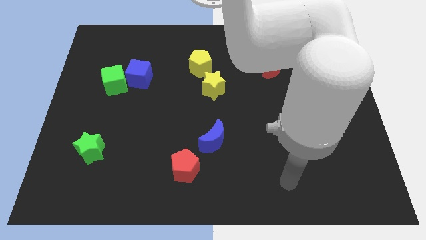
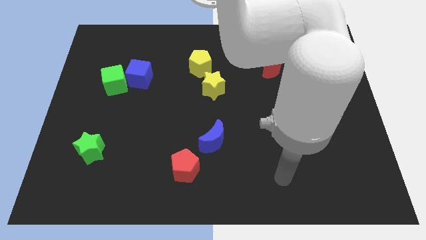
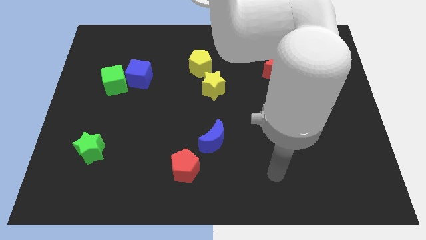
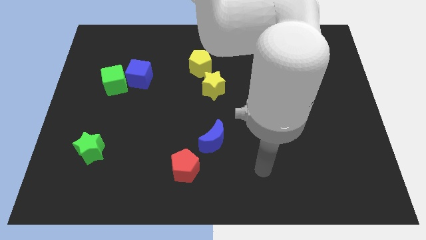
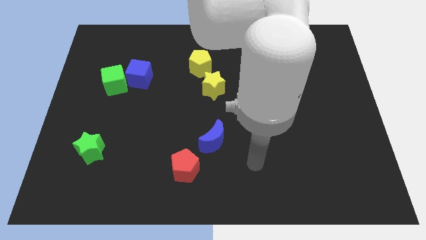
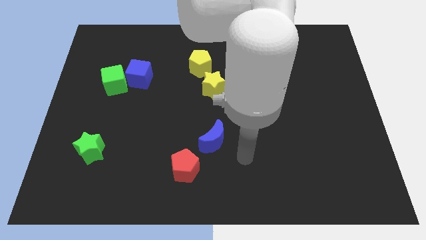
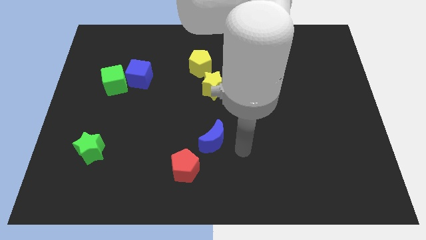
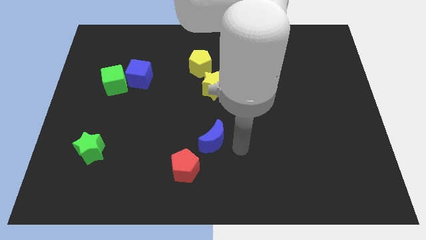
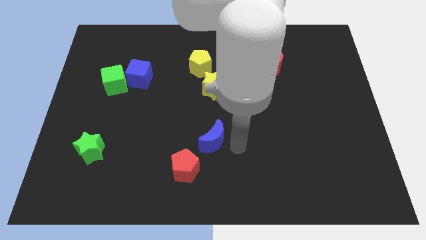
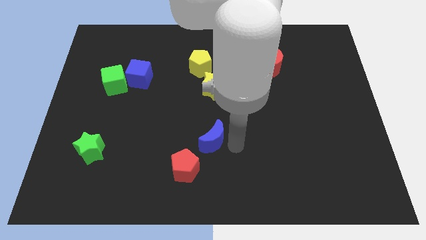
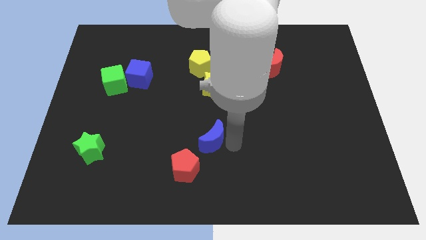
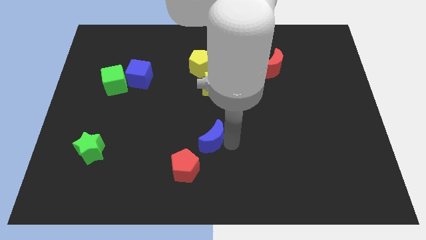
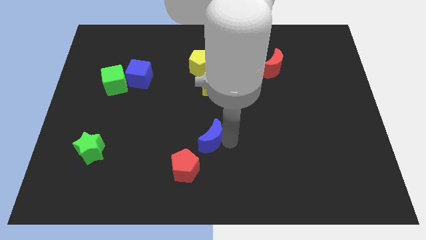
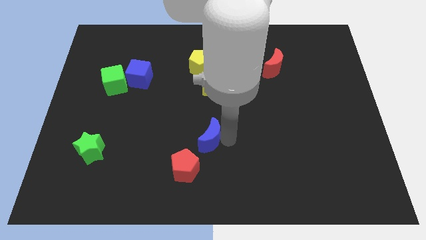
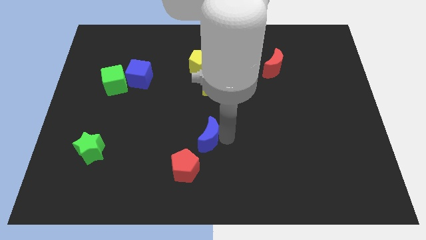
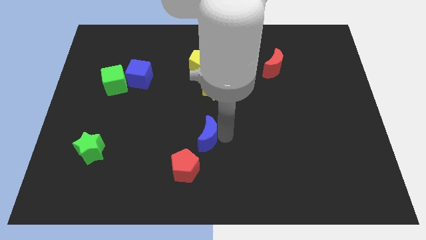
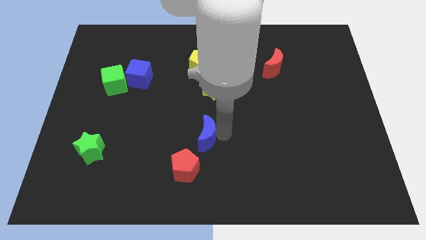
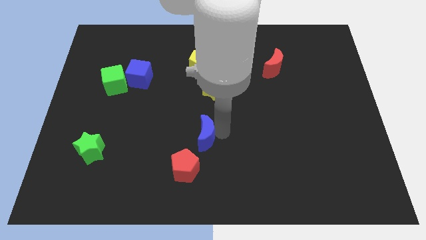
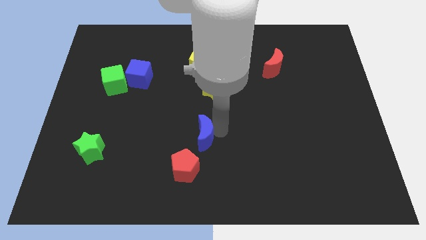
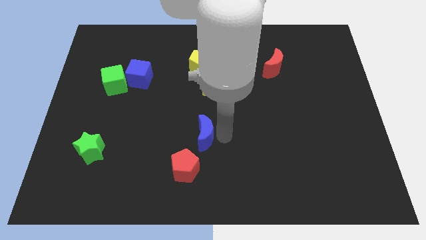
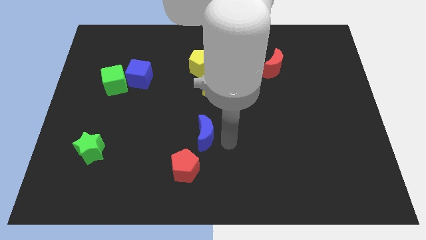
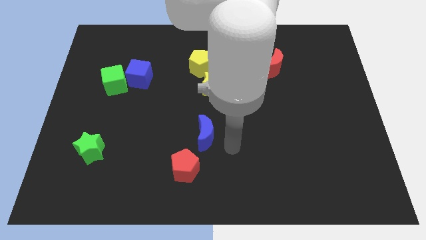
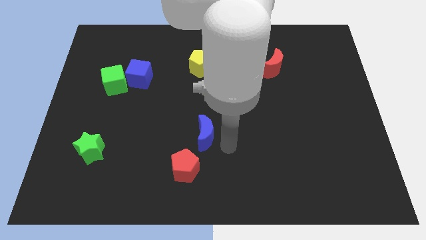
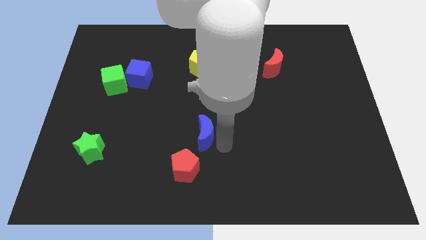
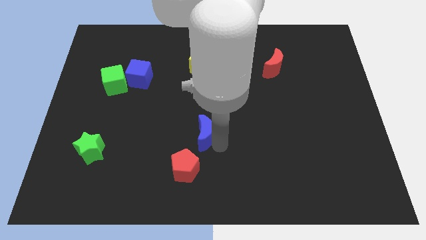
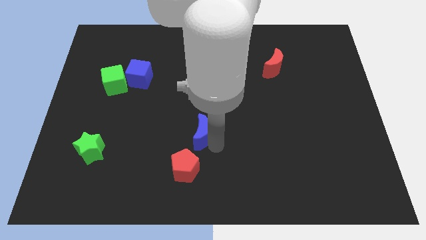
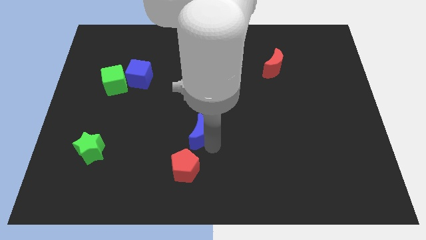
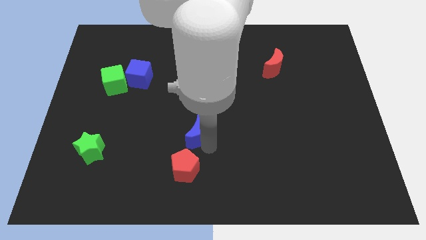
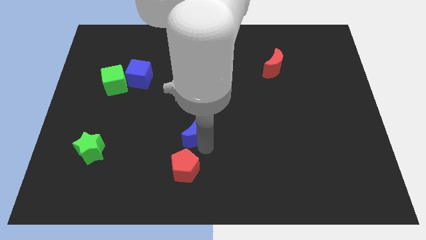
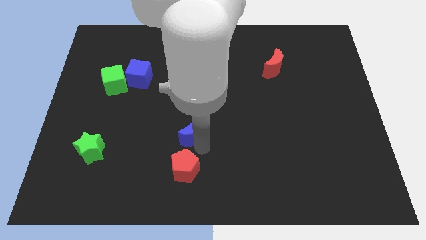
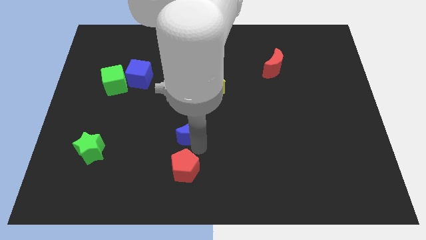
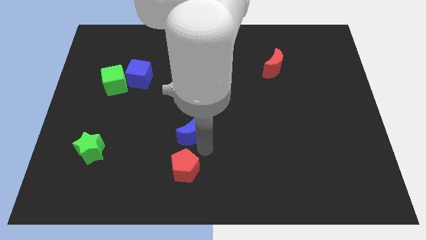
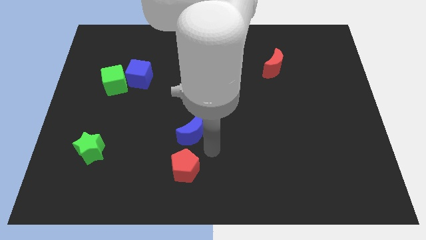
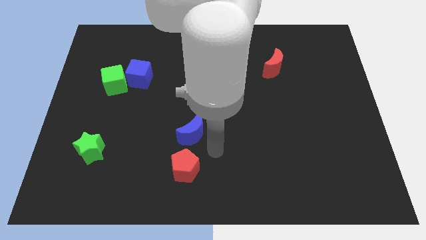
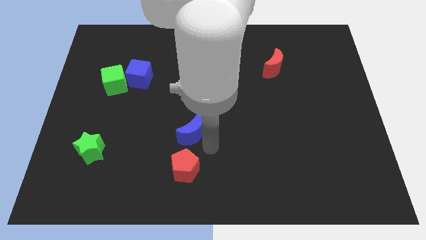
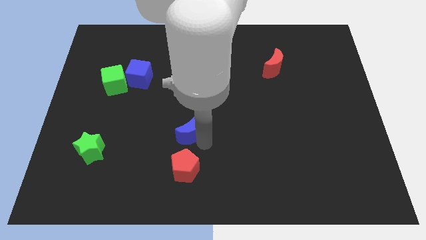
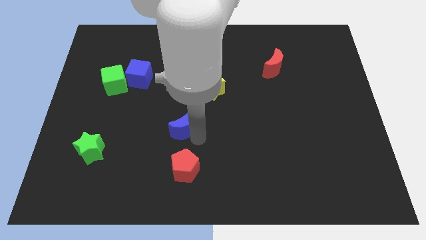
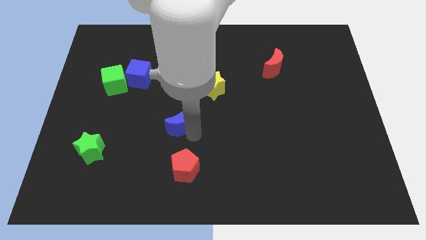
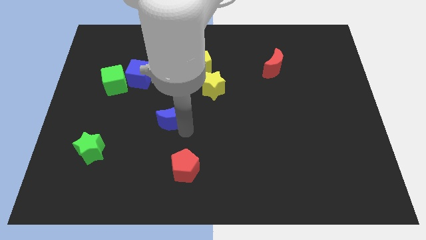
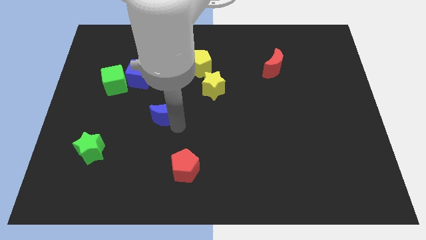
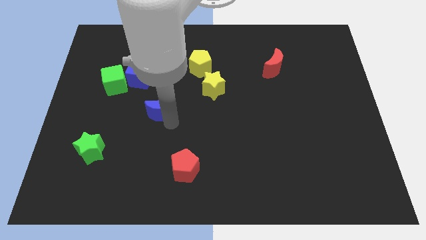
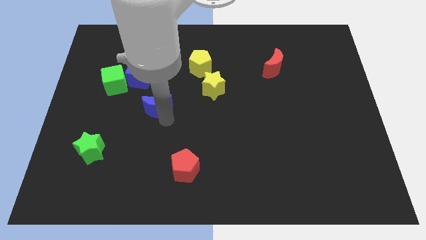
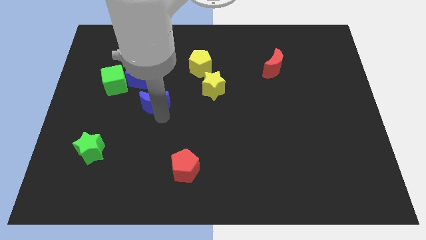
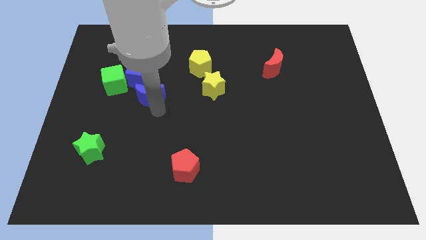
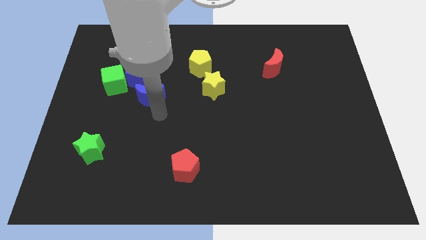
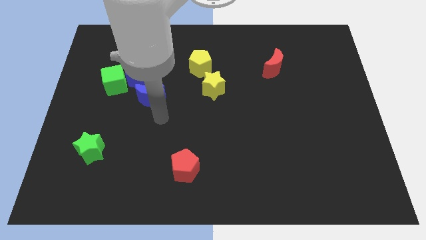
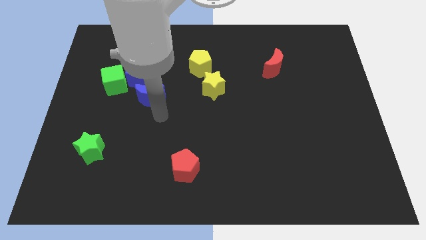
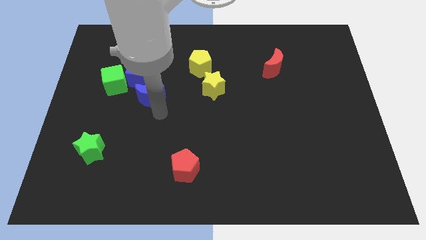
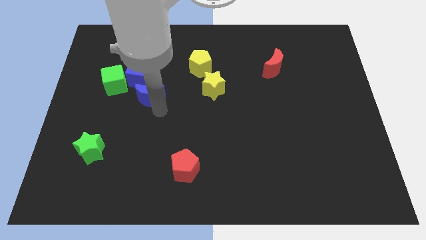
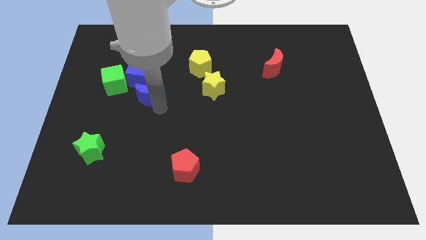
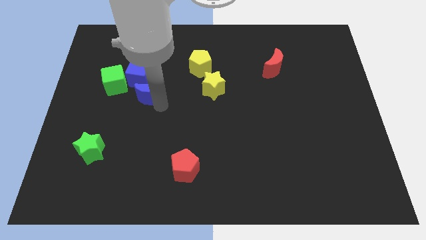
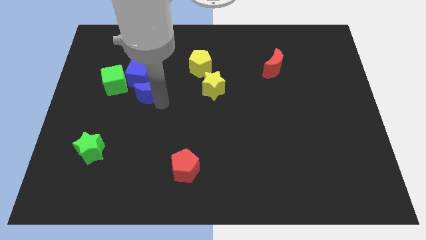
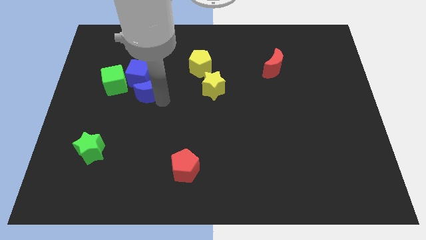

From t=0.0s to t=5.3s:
push the blue moon towards the blue cube

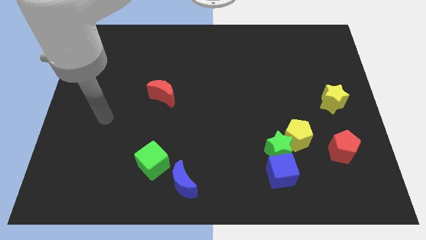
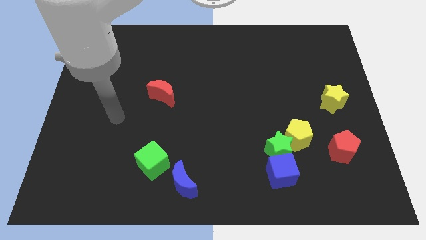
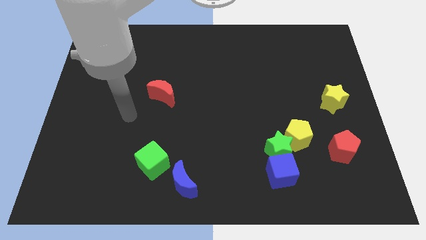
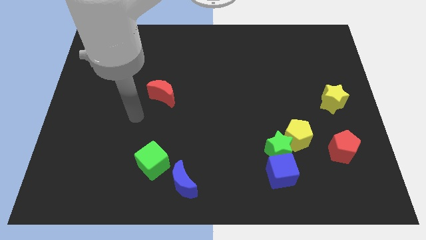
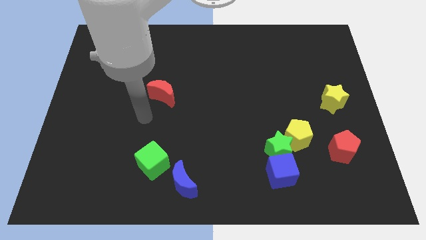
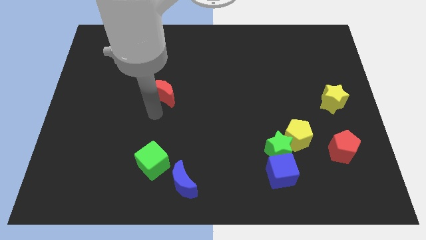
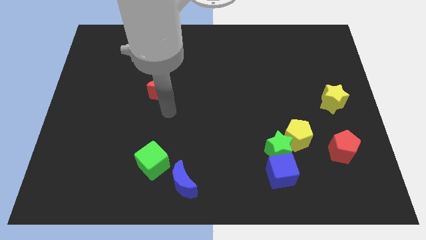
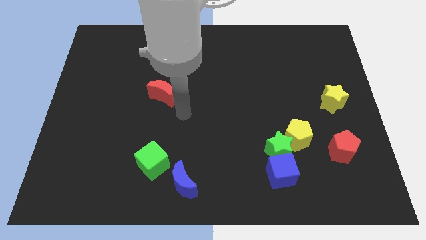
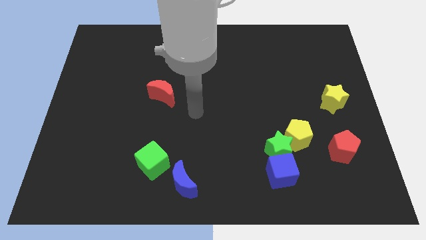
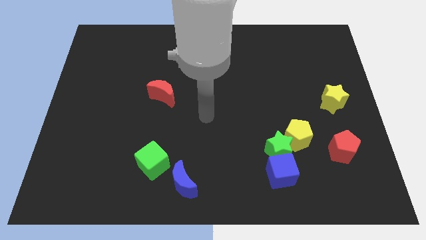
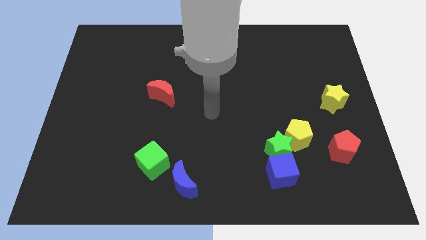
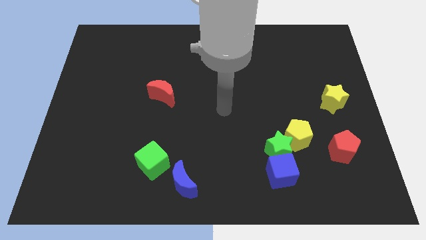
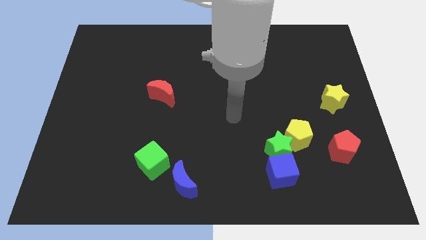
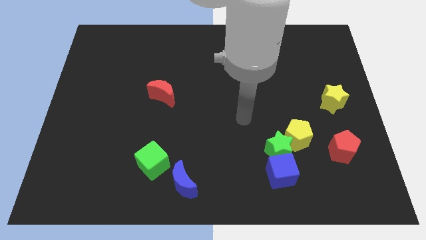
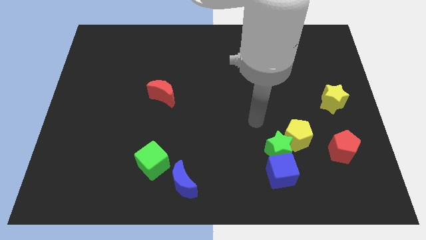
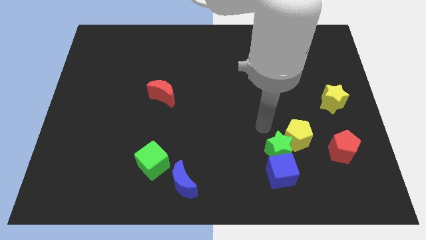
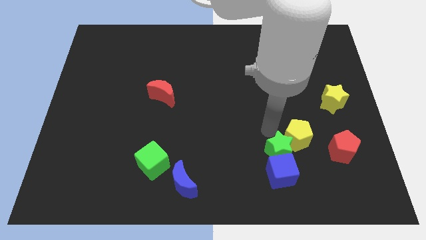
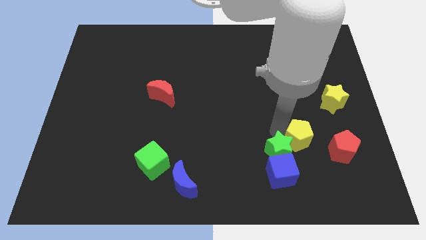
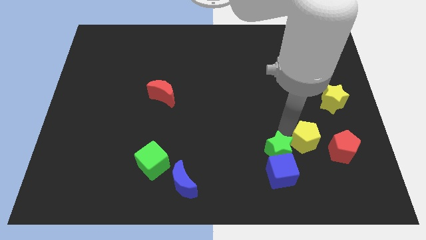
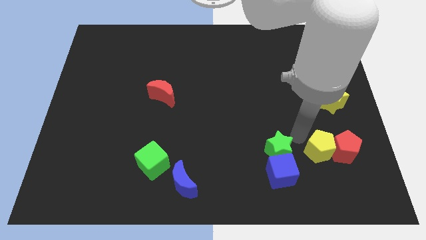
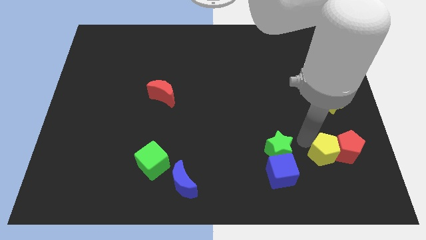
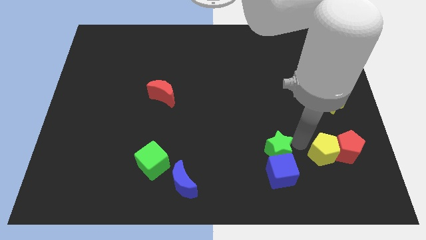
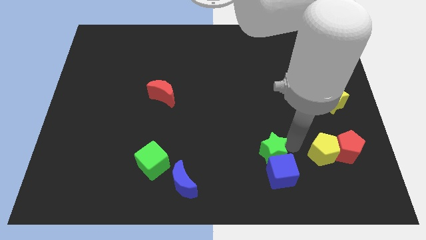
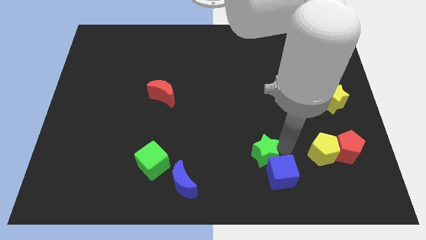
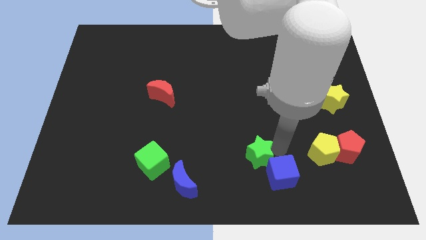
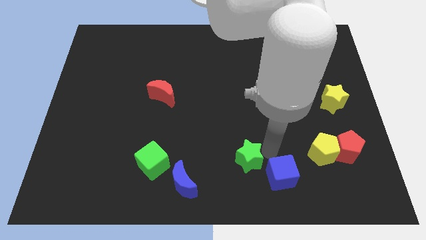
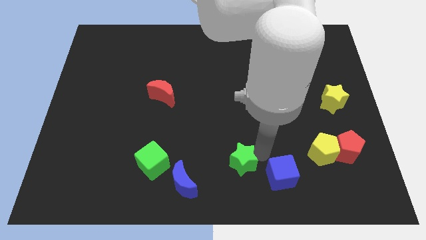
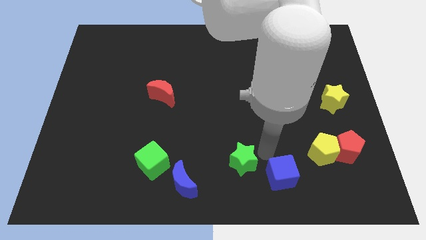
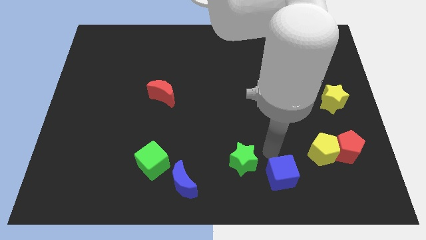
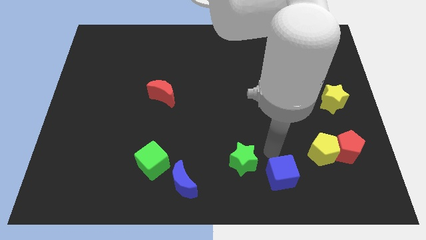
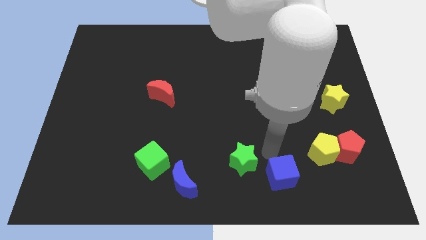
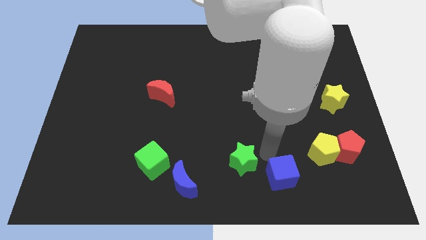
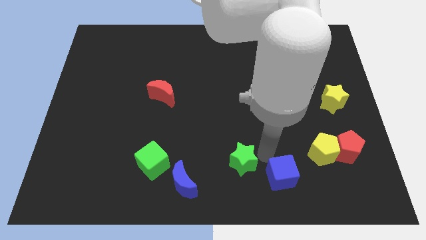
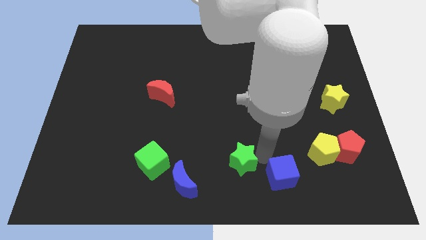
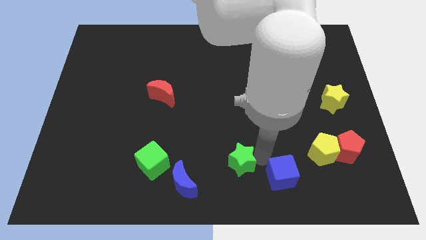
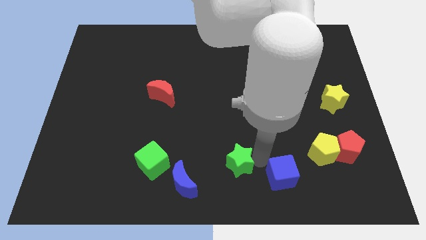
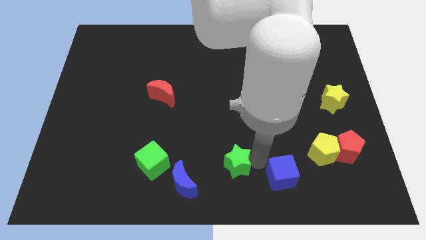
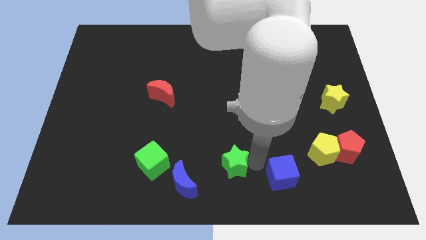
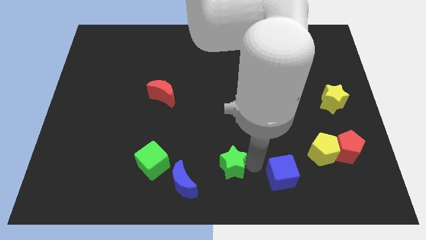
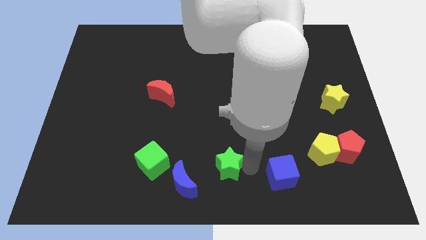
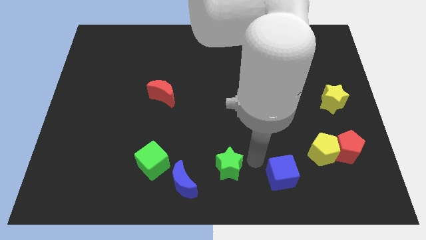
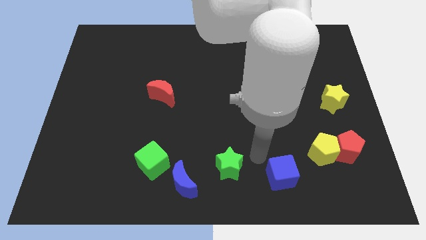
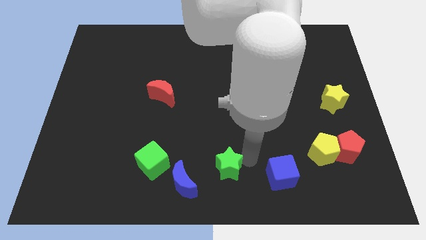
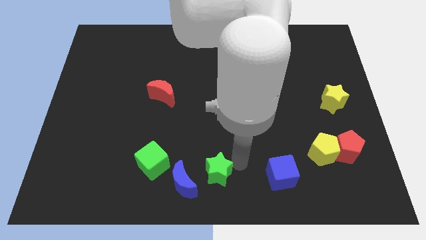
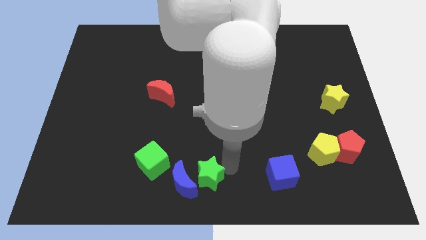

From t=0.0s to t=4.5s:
put the green star towards the blue moon
